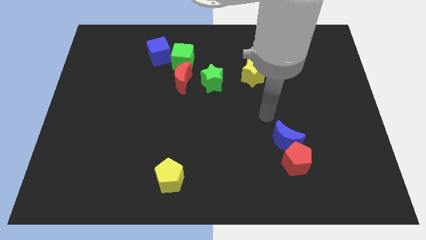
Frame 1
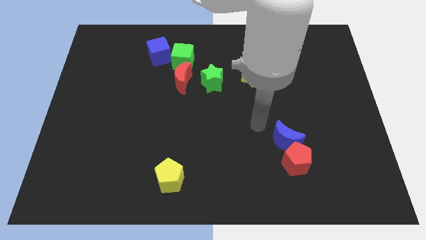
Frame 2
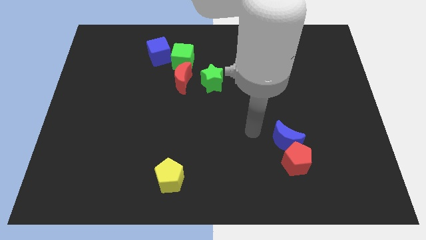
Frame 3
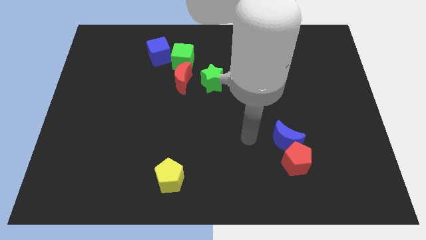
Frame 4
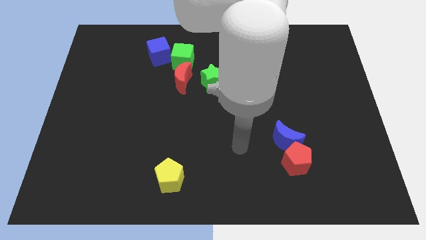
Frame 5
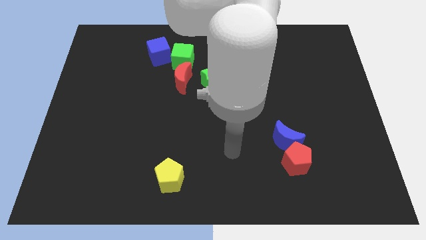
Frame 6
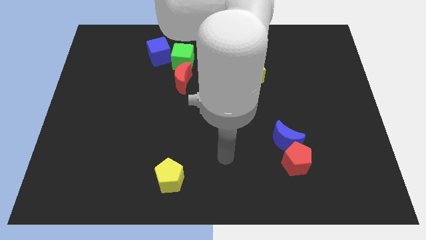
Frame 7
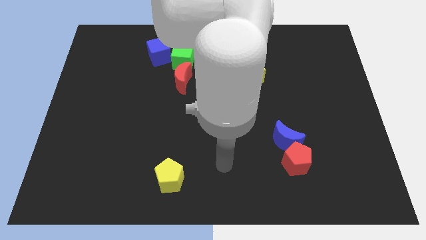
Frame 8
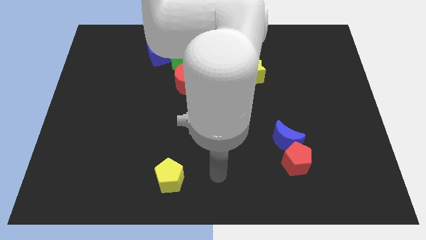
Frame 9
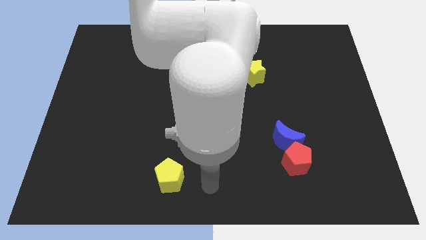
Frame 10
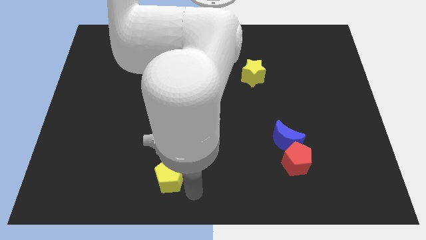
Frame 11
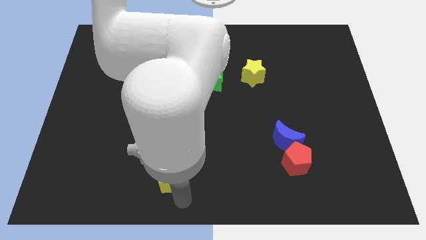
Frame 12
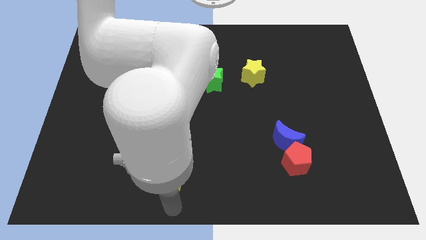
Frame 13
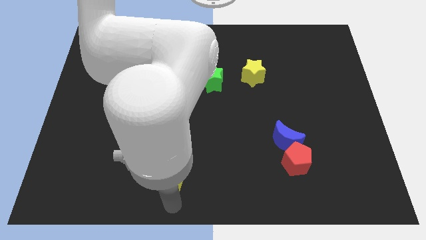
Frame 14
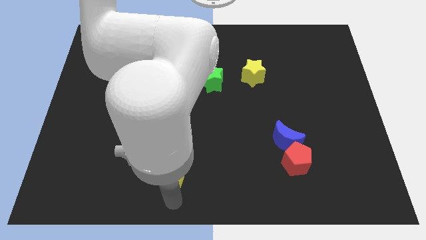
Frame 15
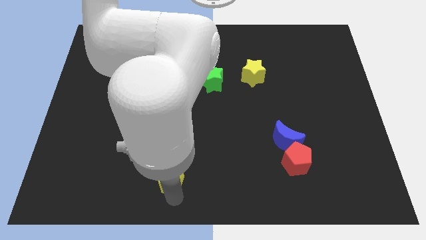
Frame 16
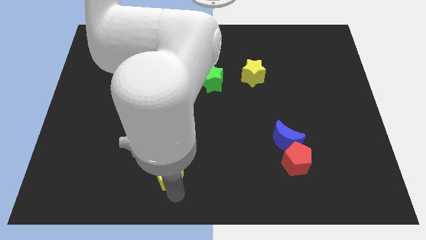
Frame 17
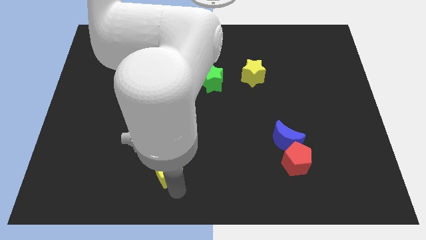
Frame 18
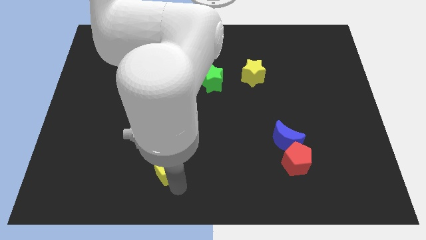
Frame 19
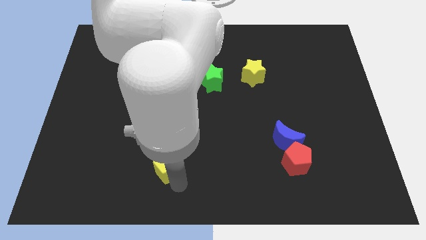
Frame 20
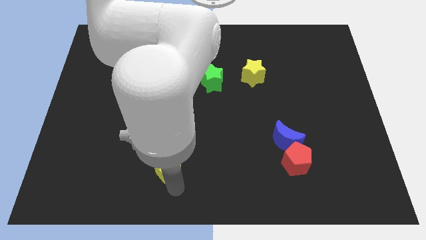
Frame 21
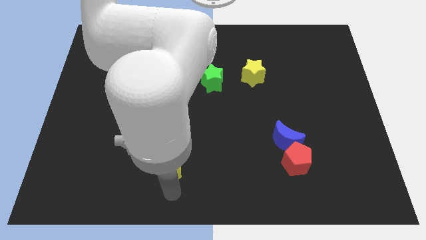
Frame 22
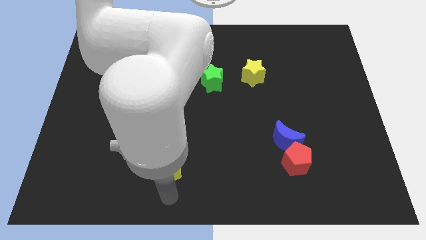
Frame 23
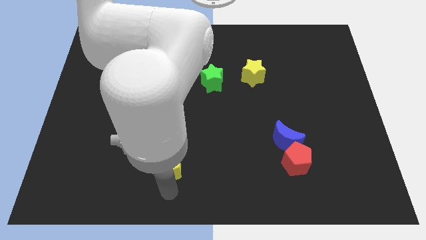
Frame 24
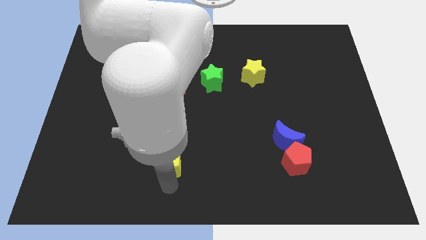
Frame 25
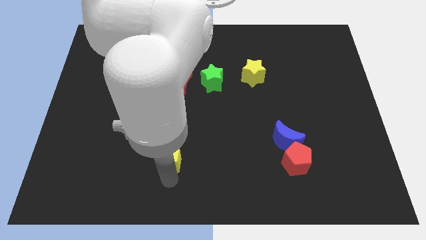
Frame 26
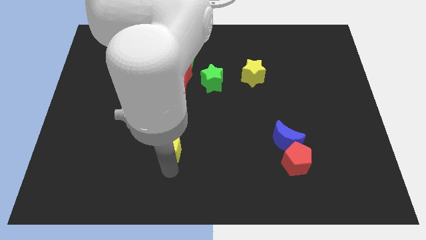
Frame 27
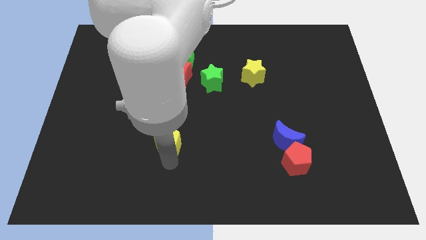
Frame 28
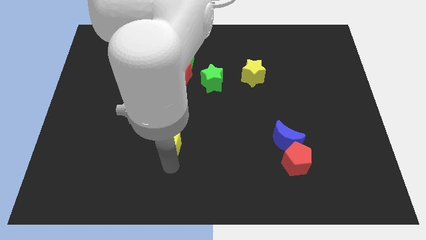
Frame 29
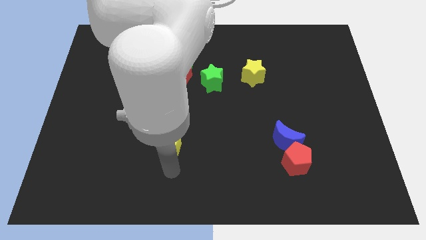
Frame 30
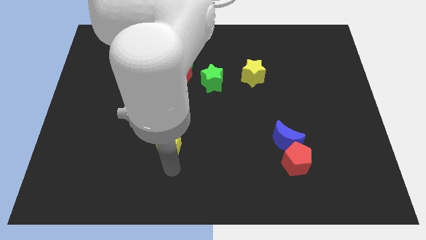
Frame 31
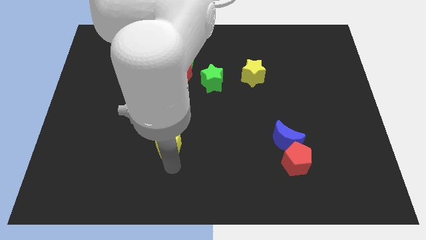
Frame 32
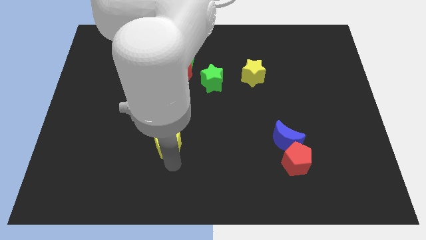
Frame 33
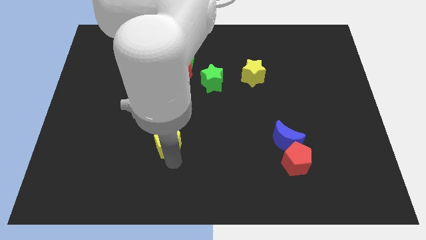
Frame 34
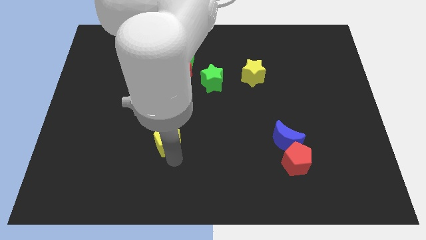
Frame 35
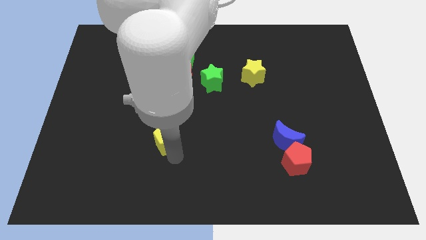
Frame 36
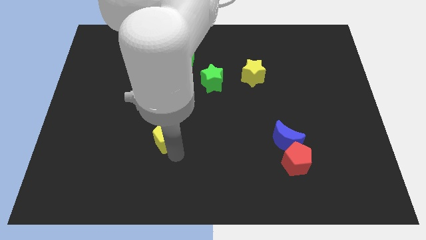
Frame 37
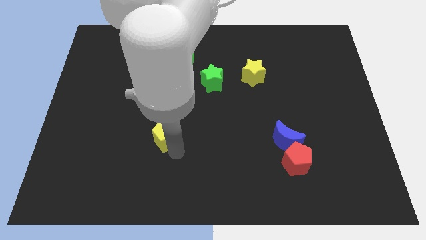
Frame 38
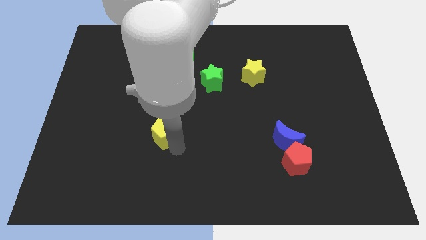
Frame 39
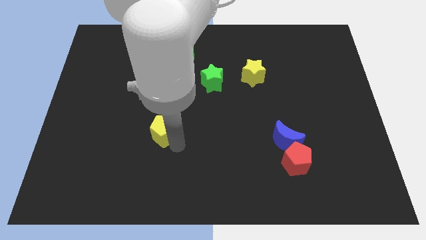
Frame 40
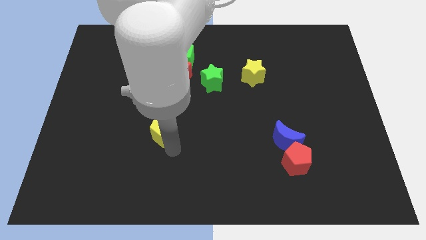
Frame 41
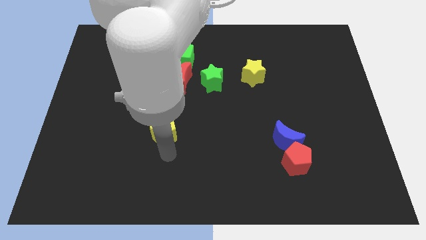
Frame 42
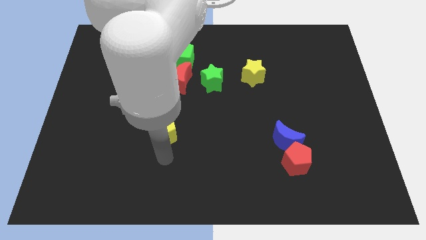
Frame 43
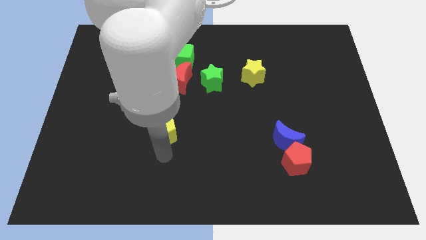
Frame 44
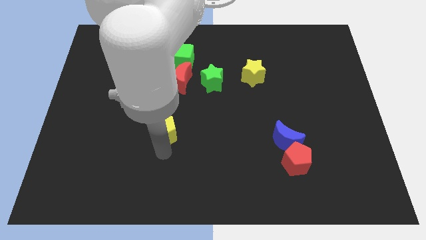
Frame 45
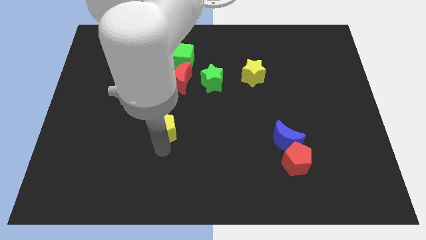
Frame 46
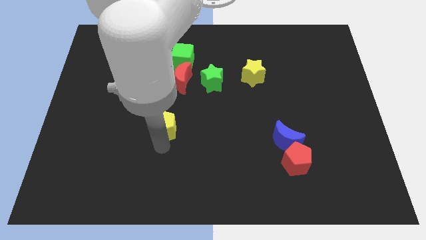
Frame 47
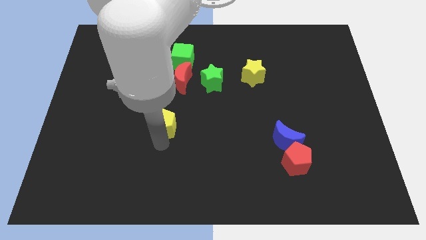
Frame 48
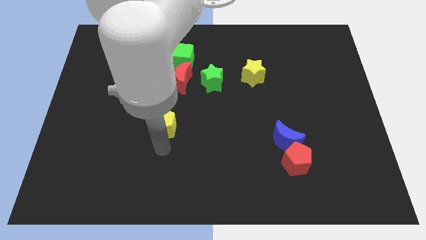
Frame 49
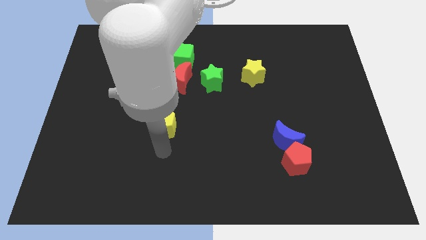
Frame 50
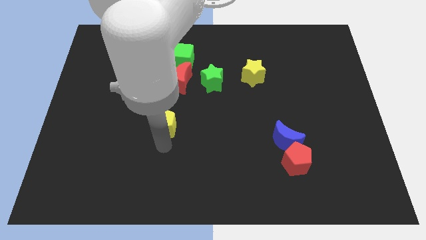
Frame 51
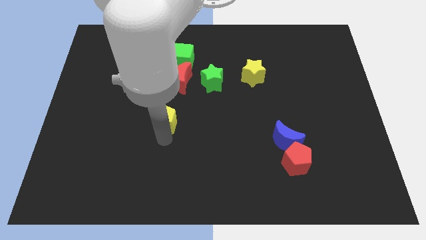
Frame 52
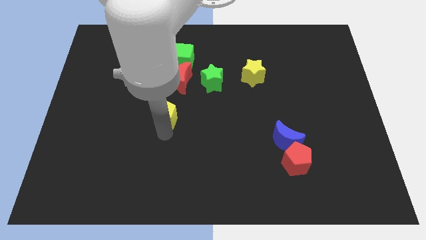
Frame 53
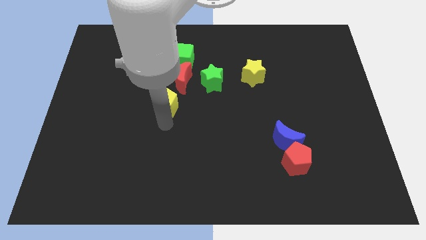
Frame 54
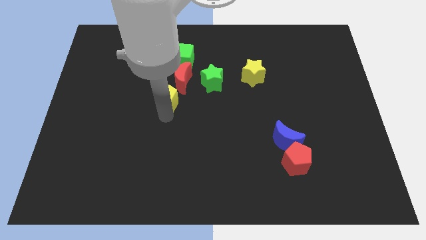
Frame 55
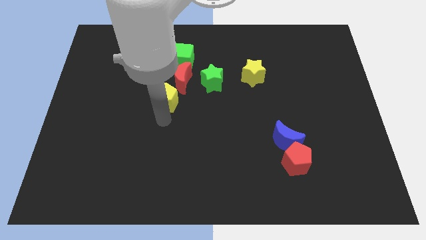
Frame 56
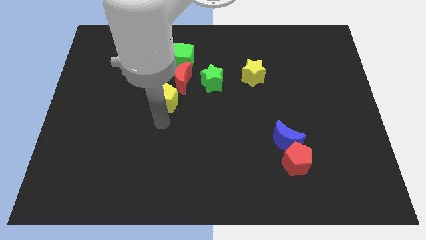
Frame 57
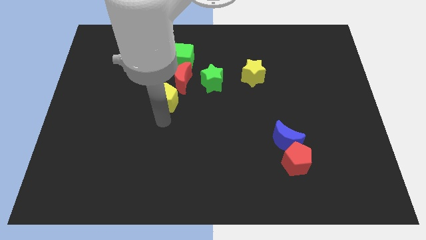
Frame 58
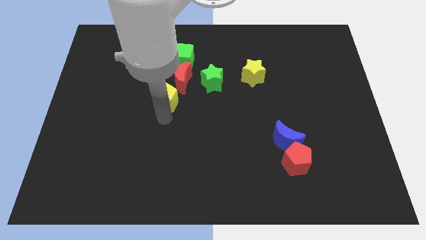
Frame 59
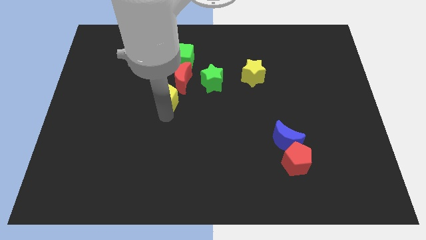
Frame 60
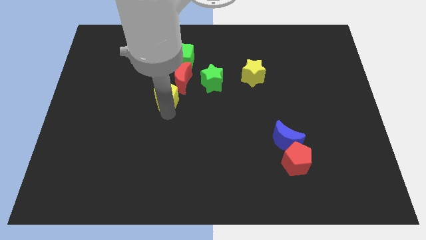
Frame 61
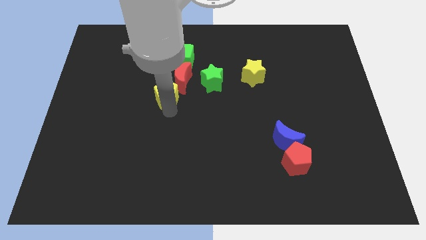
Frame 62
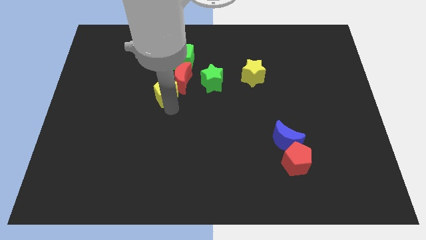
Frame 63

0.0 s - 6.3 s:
move the yellow pentagon left of the green star
